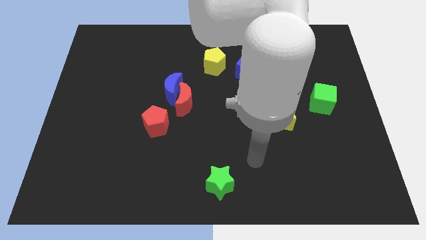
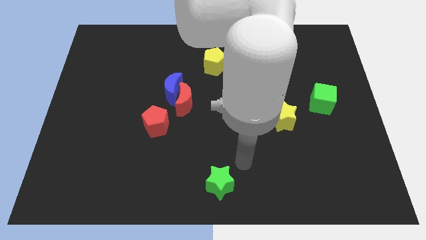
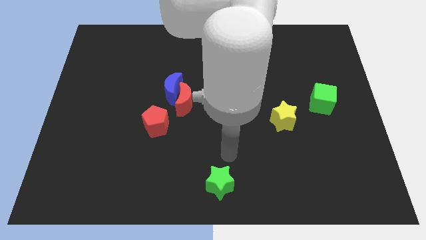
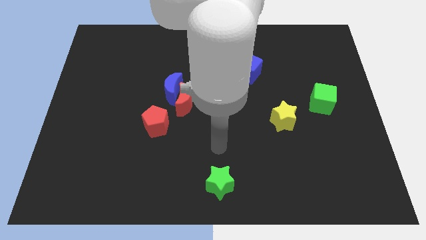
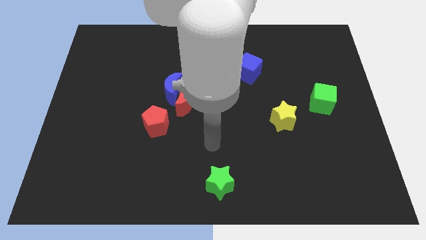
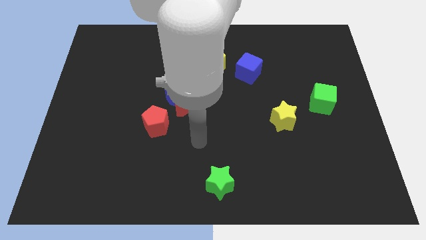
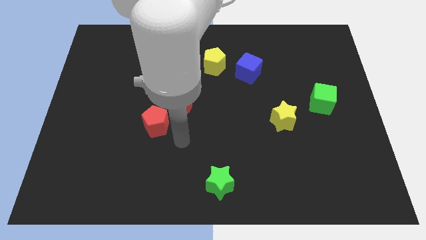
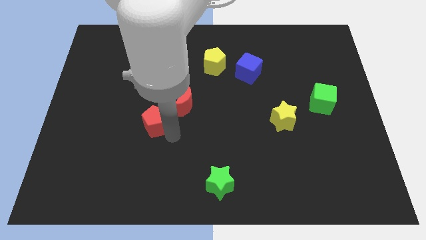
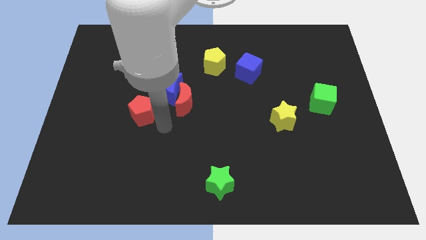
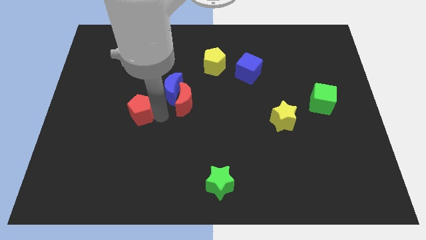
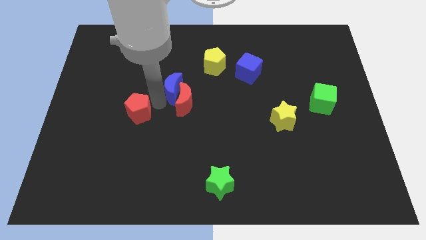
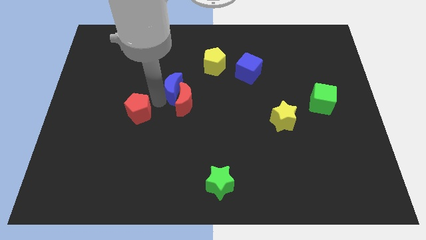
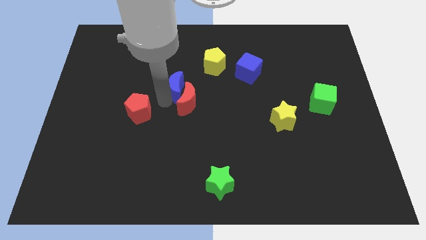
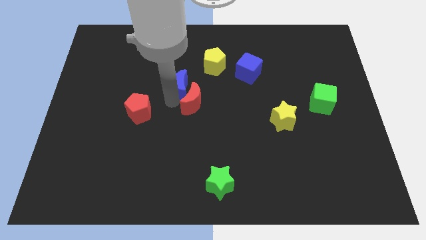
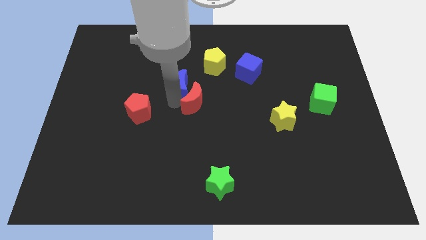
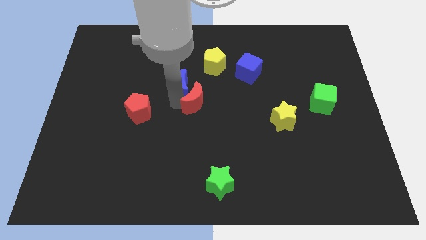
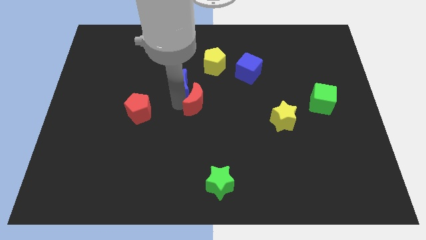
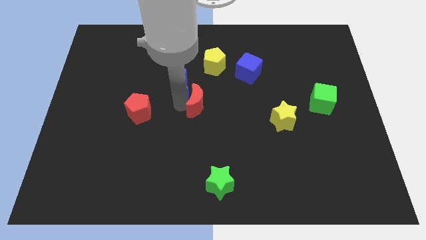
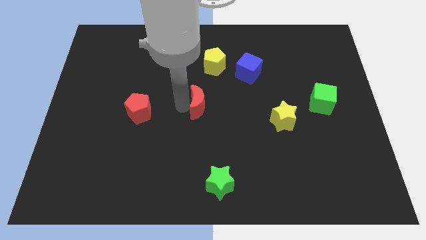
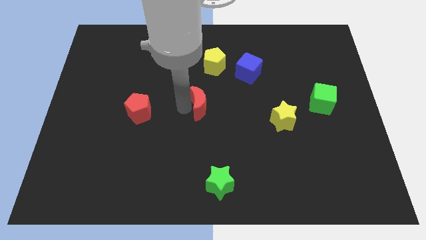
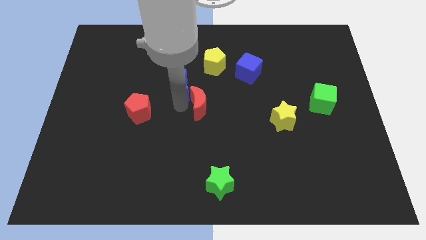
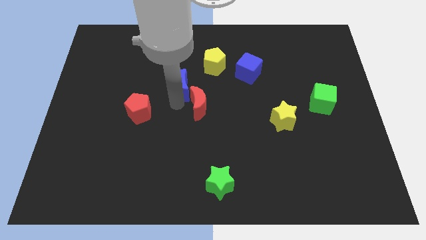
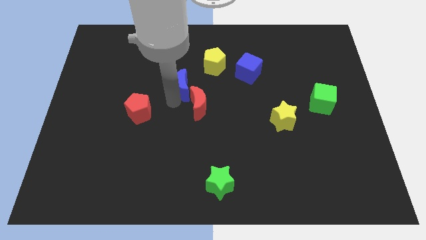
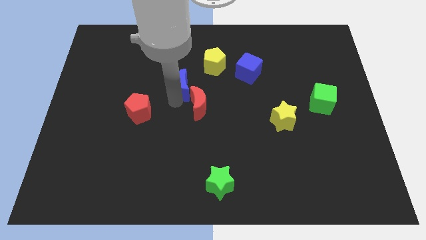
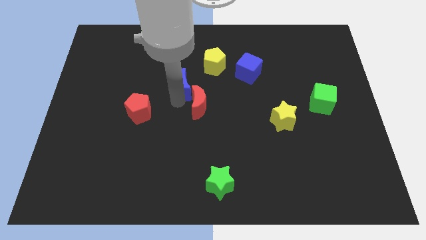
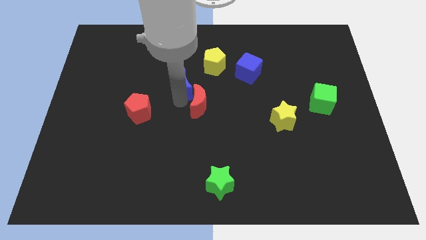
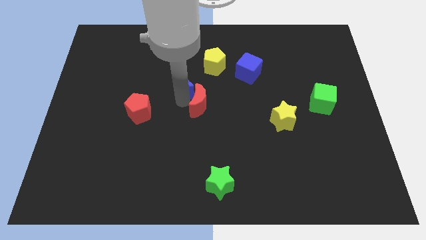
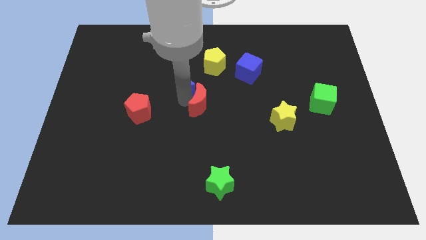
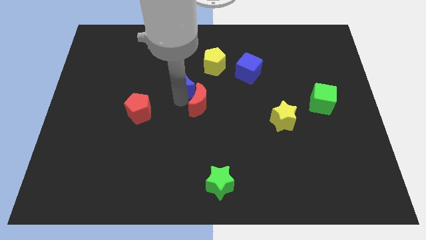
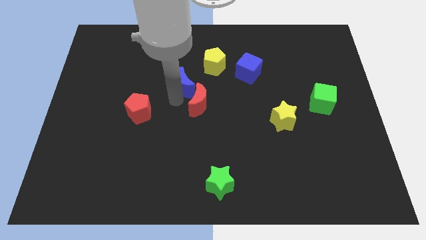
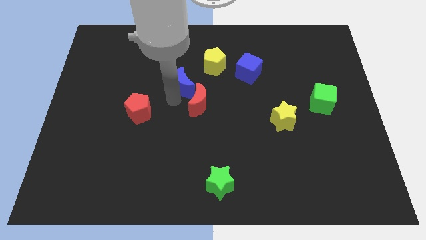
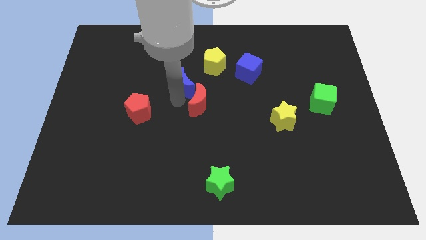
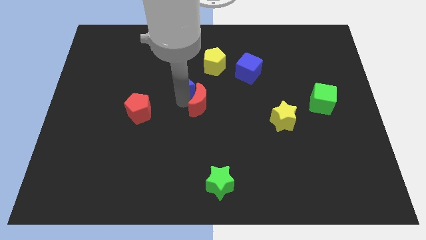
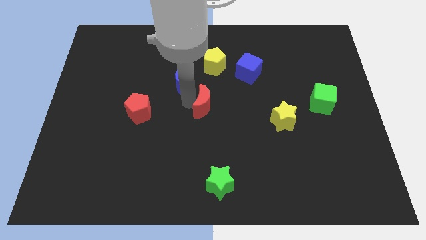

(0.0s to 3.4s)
move the red moon away from the blue moon and red pentagon

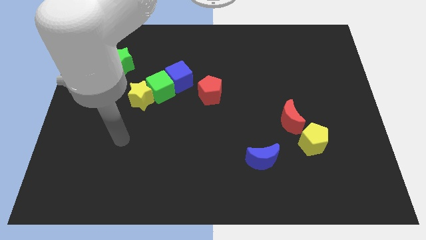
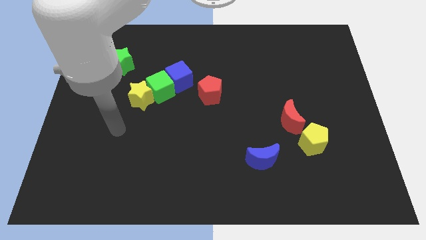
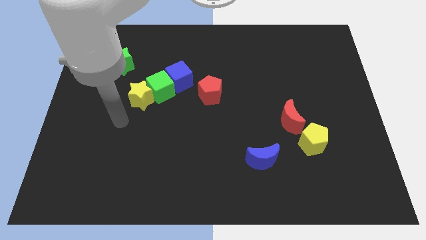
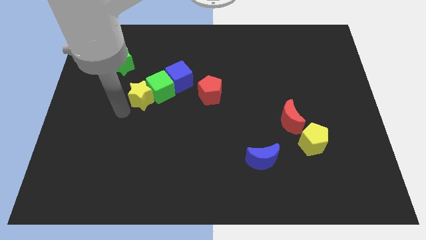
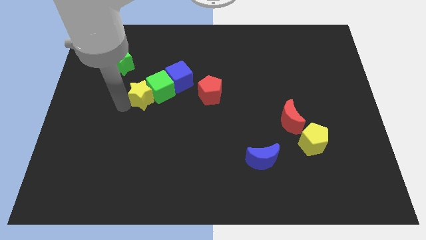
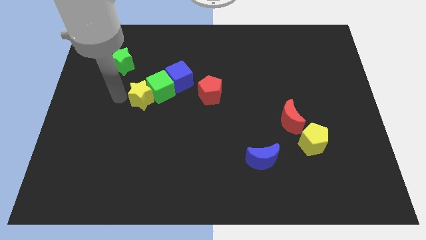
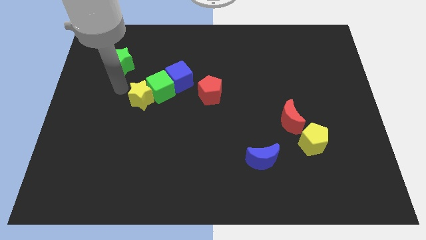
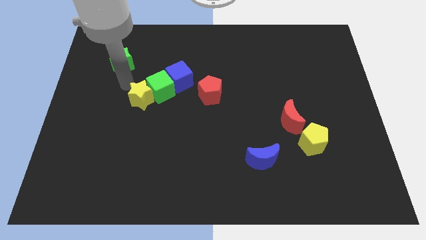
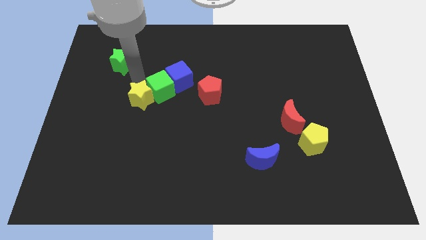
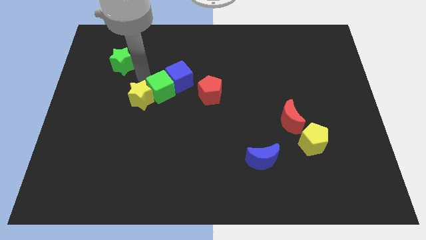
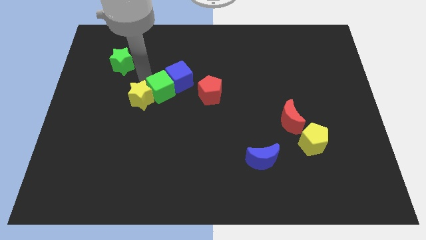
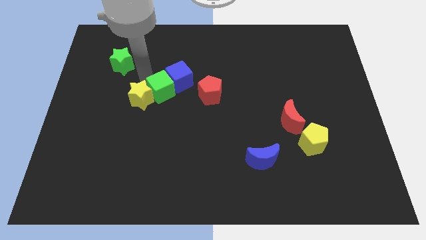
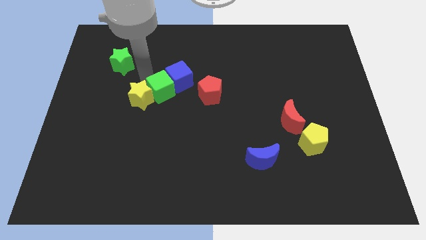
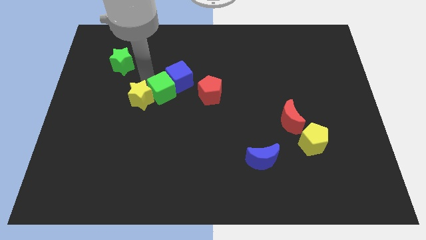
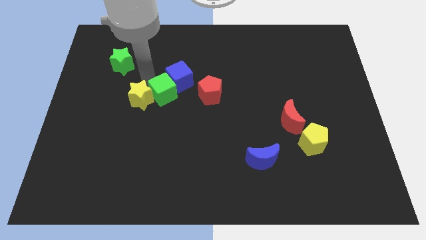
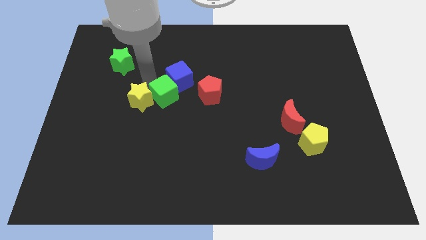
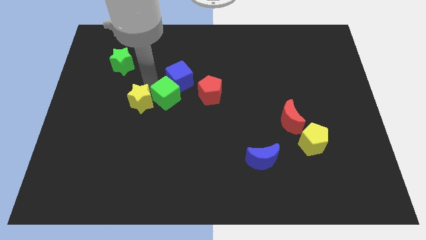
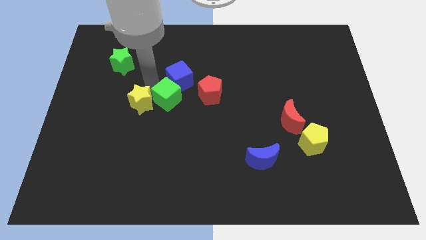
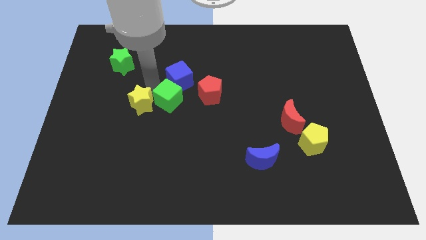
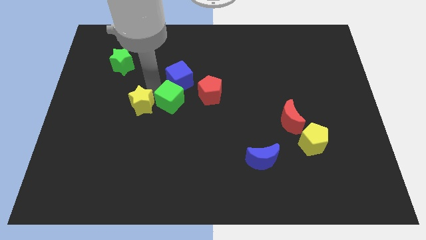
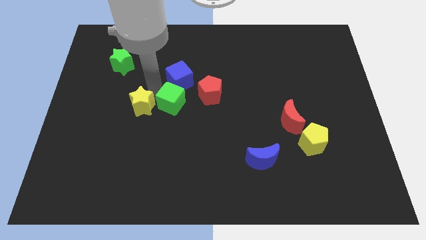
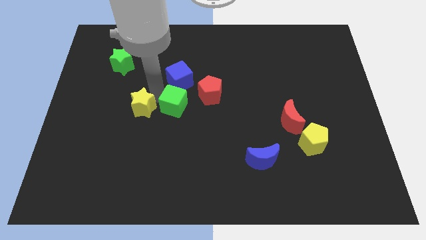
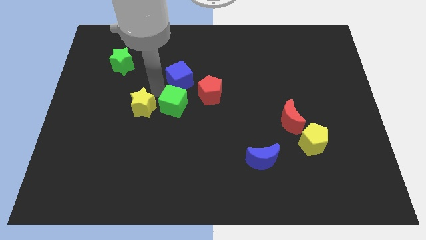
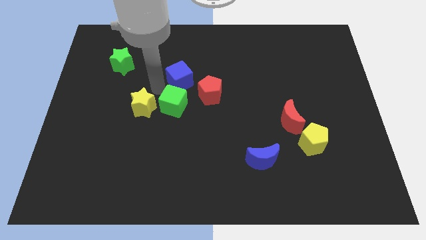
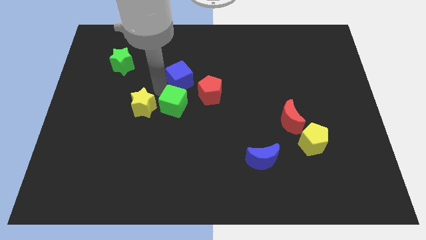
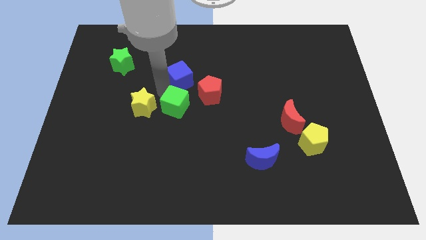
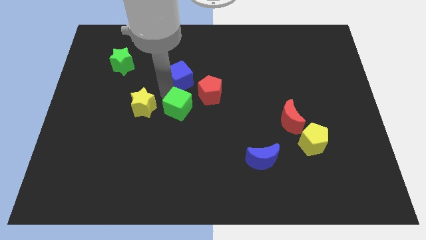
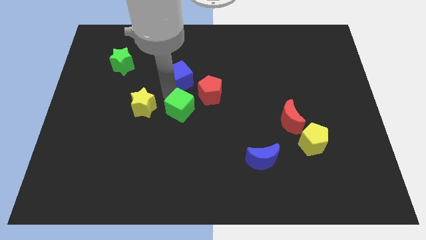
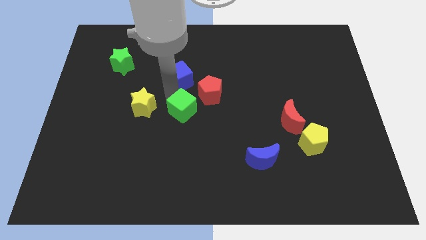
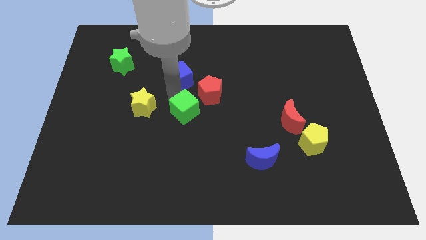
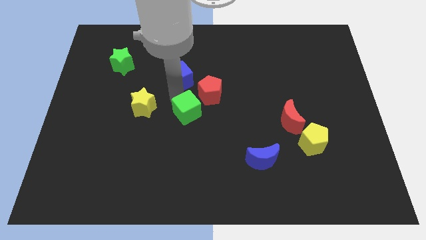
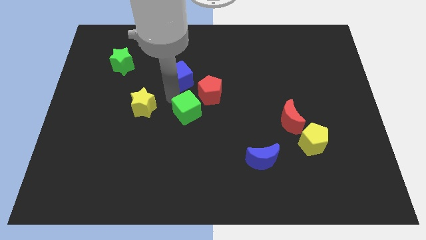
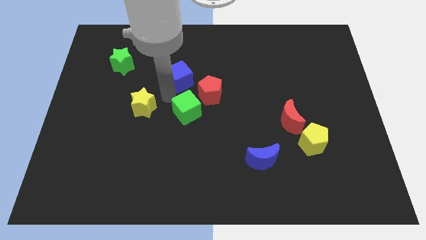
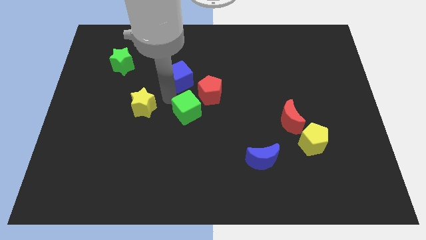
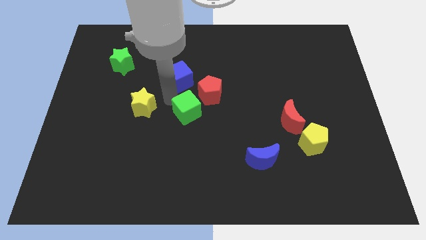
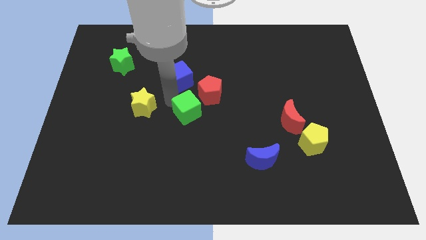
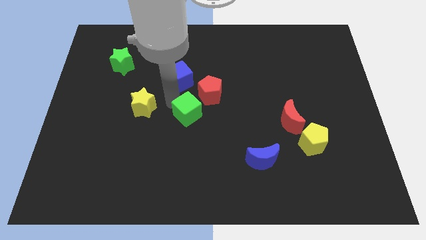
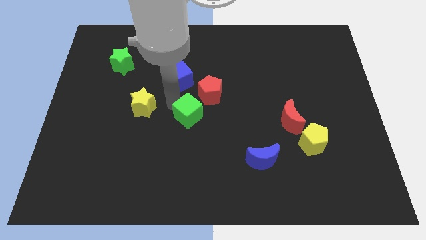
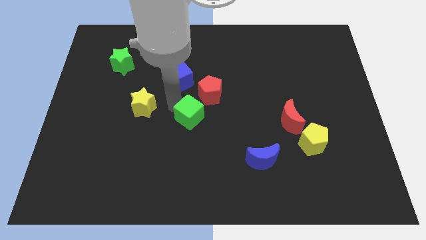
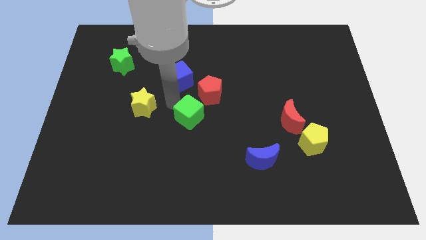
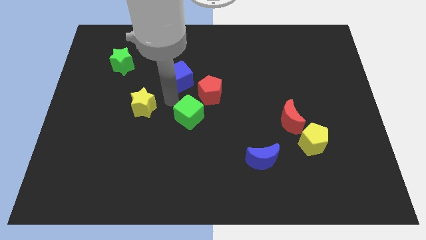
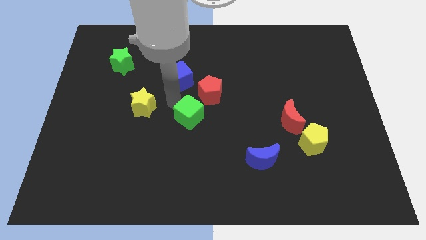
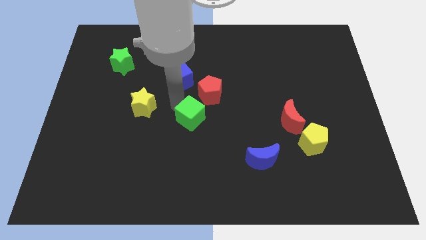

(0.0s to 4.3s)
pull the green cube apart from the blue cube and yellow star

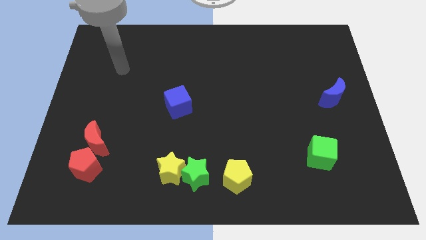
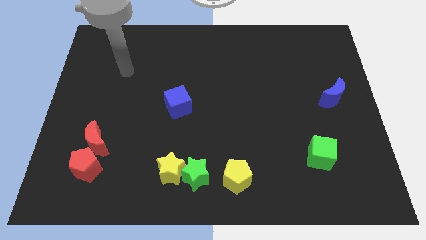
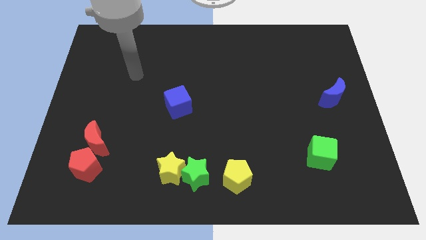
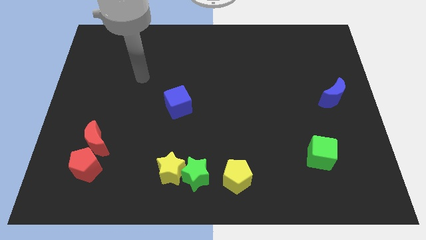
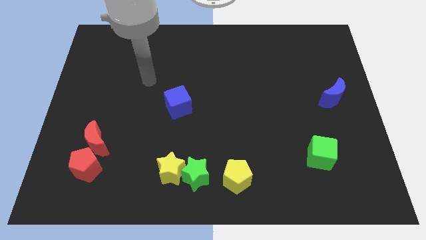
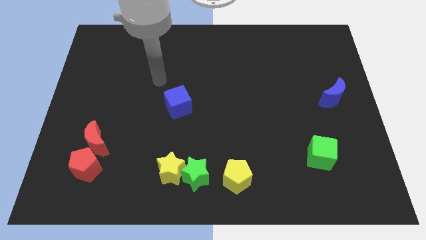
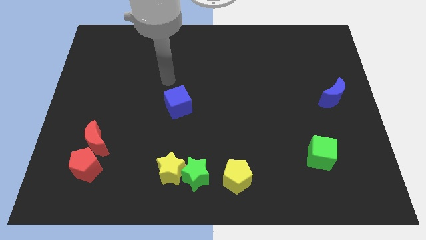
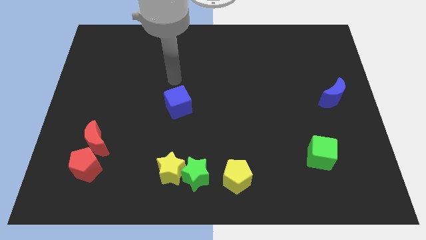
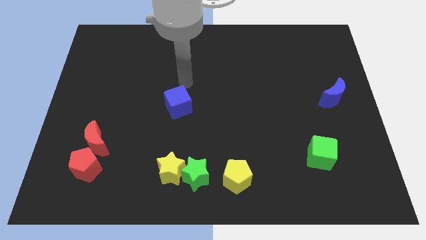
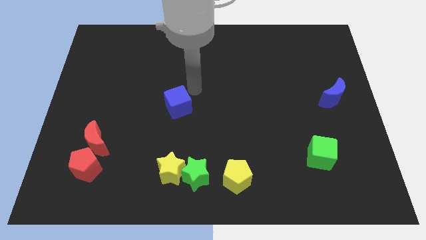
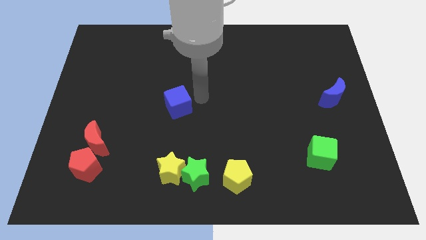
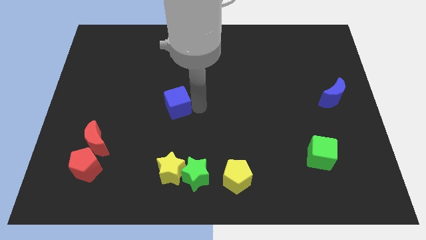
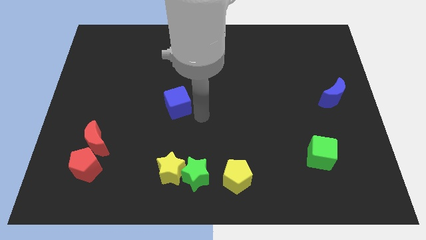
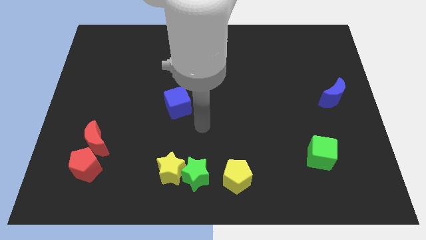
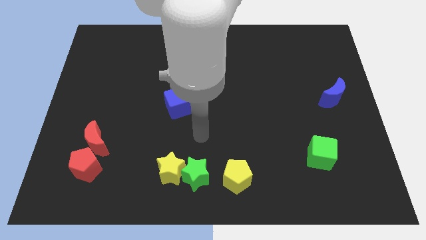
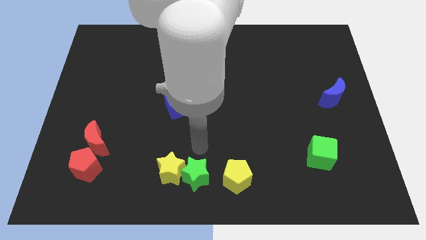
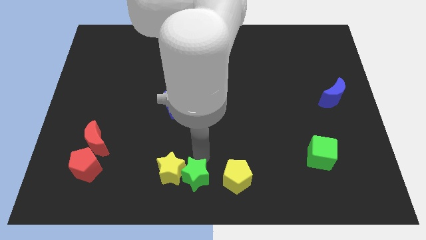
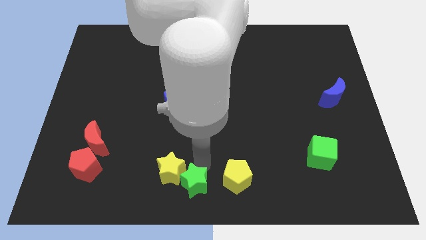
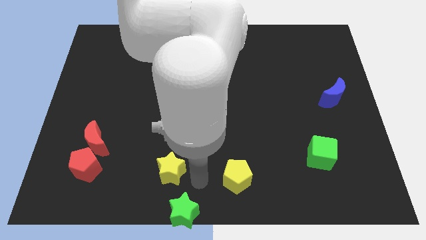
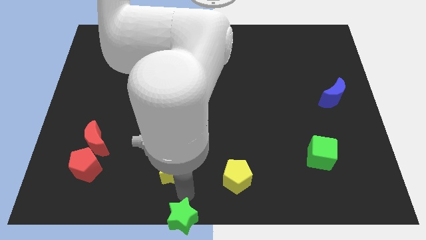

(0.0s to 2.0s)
pull the yellow star apart from the green star
